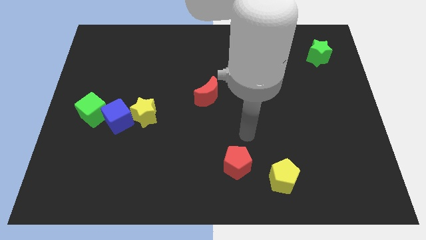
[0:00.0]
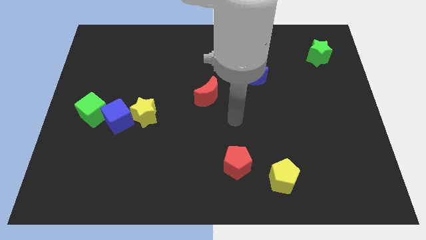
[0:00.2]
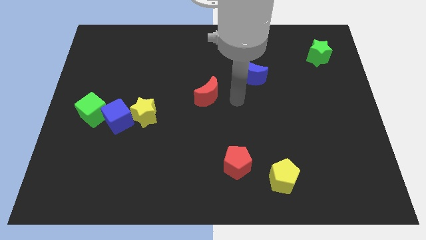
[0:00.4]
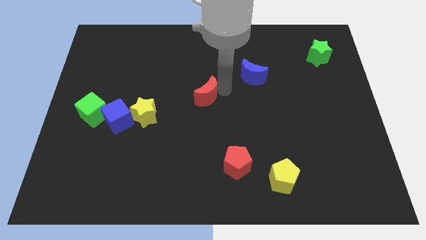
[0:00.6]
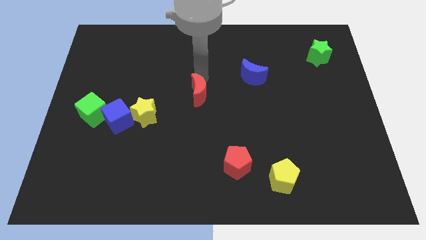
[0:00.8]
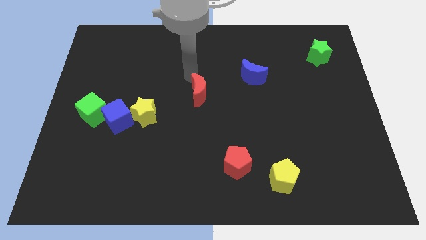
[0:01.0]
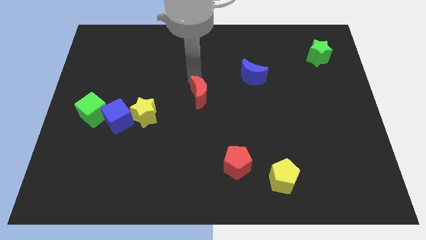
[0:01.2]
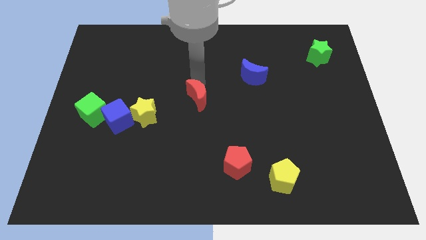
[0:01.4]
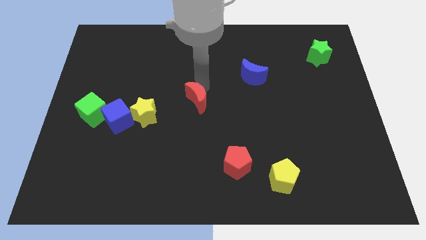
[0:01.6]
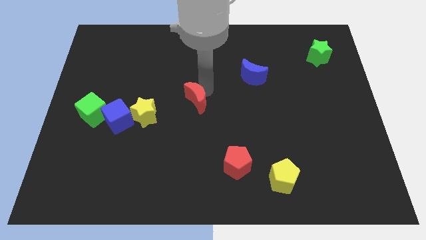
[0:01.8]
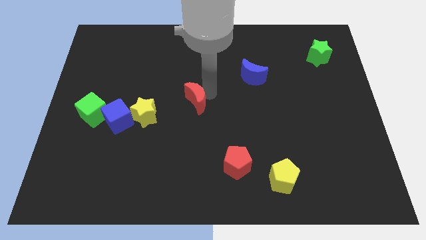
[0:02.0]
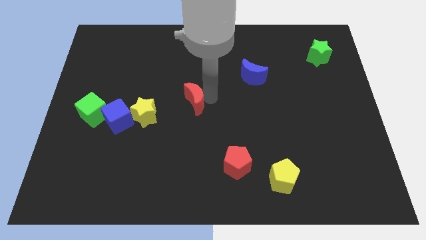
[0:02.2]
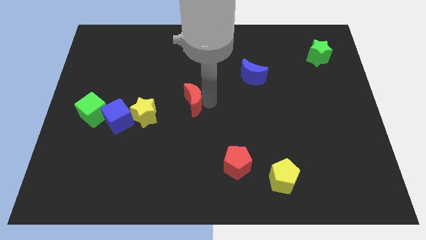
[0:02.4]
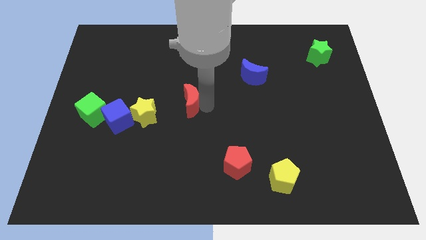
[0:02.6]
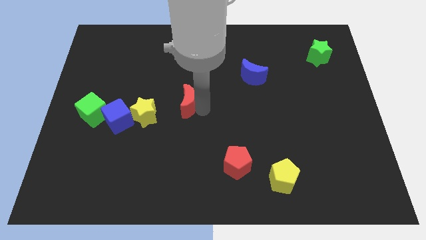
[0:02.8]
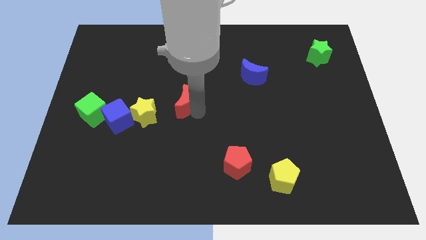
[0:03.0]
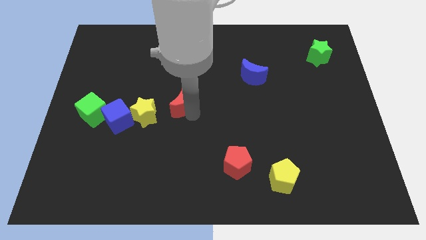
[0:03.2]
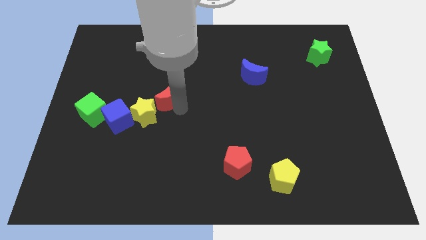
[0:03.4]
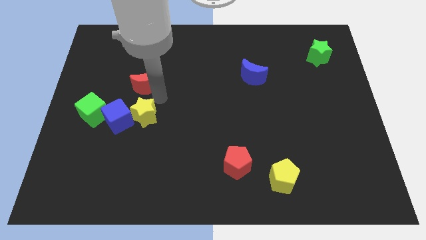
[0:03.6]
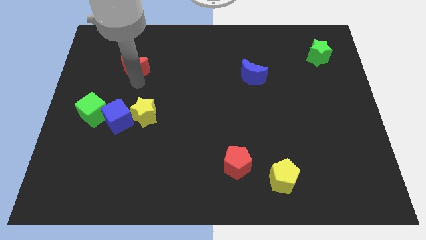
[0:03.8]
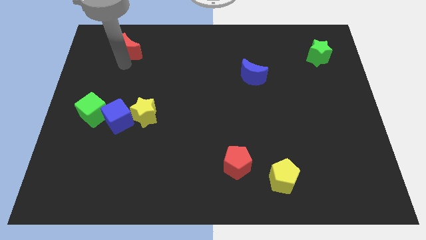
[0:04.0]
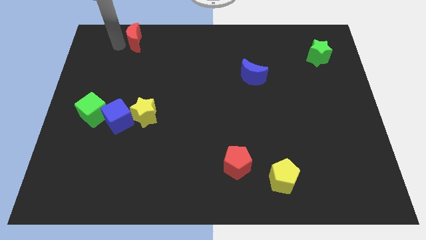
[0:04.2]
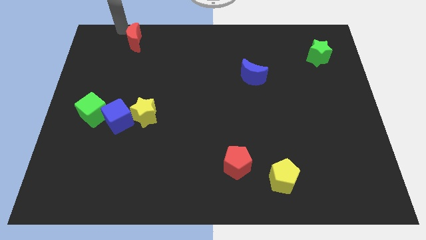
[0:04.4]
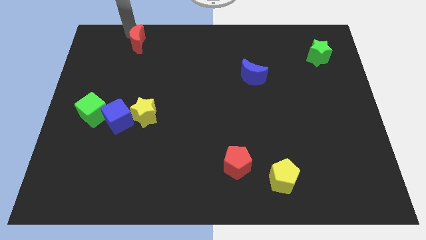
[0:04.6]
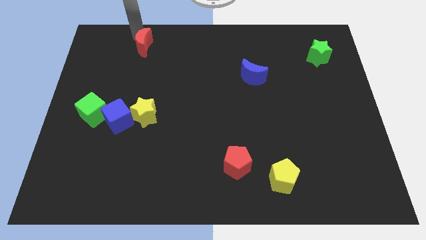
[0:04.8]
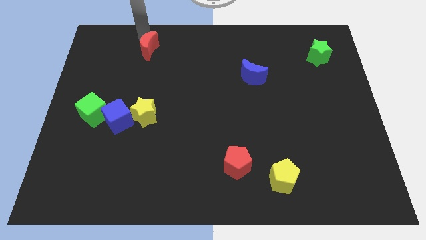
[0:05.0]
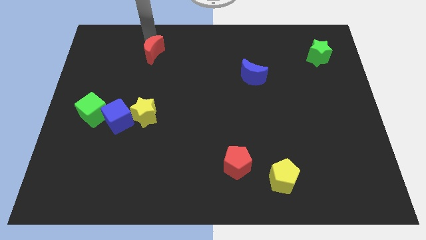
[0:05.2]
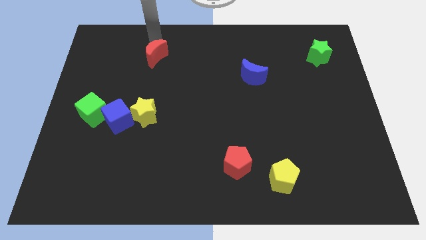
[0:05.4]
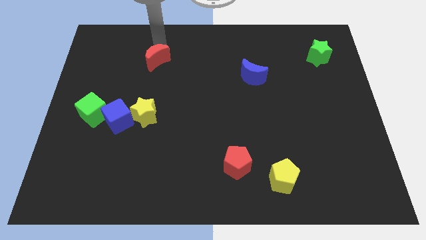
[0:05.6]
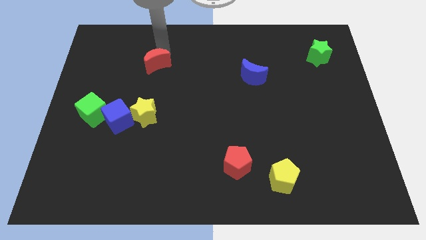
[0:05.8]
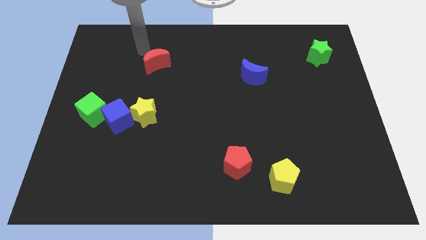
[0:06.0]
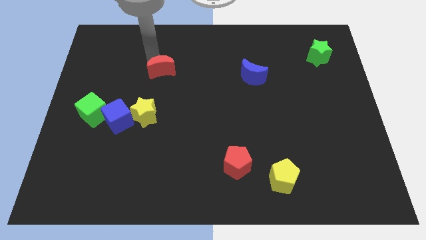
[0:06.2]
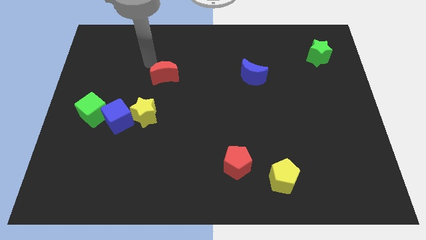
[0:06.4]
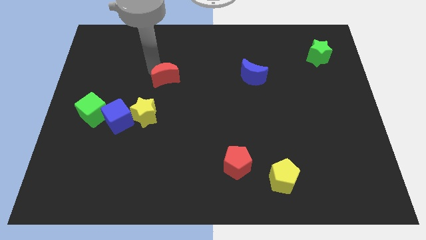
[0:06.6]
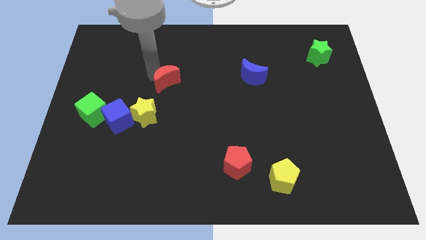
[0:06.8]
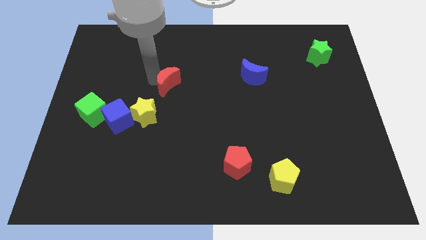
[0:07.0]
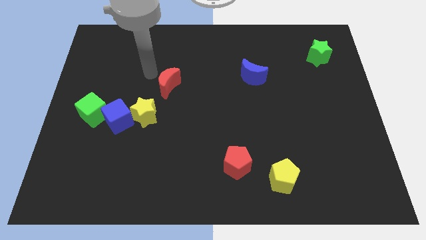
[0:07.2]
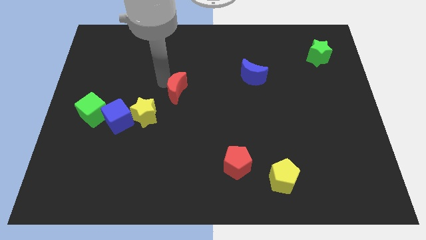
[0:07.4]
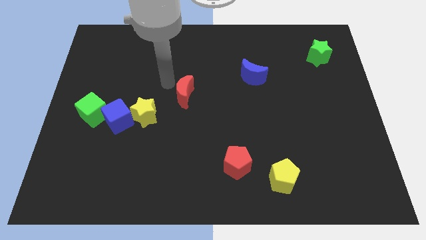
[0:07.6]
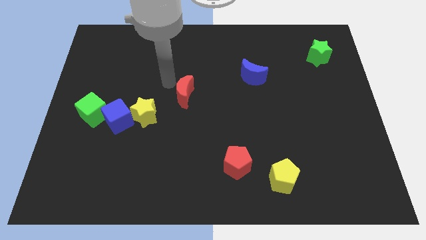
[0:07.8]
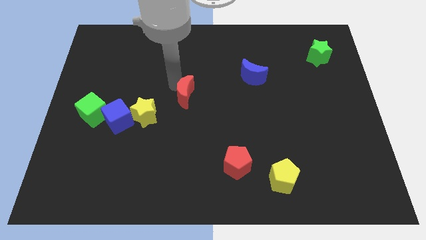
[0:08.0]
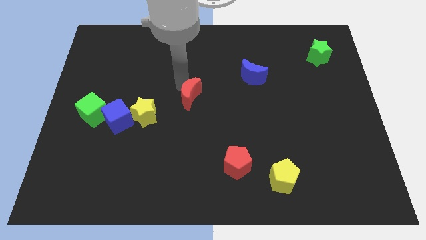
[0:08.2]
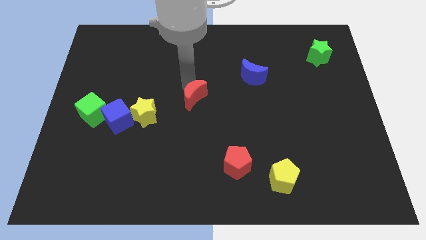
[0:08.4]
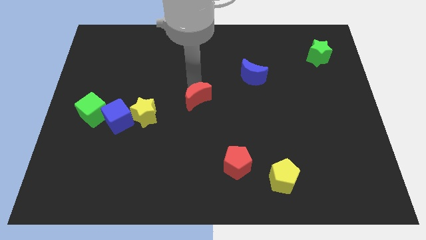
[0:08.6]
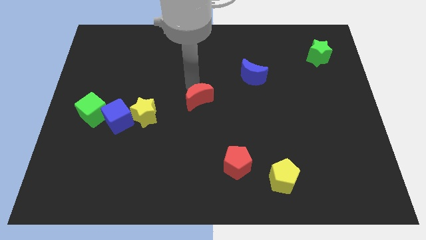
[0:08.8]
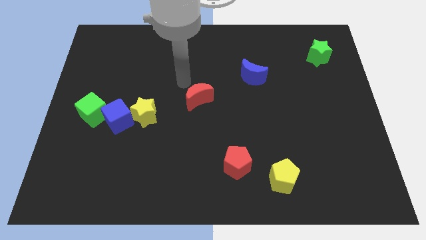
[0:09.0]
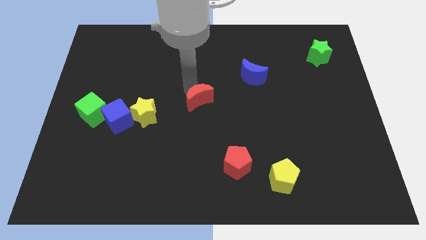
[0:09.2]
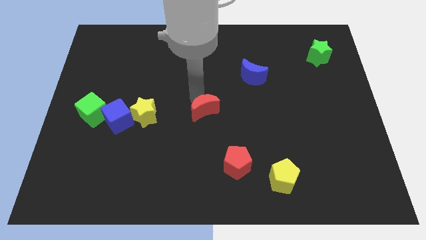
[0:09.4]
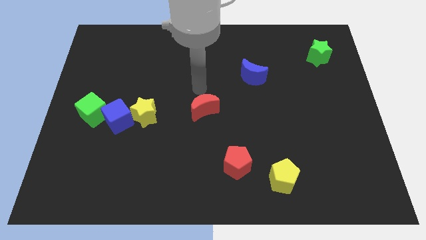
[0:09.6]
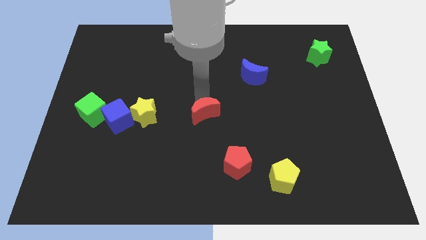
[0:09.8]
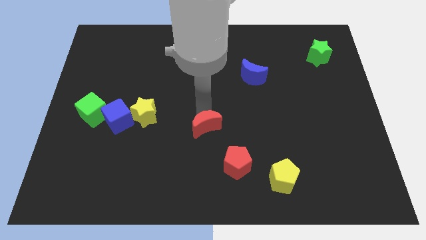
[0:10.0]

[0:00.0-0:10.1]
push the red moon to the top left side of the red pentagon

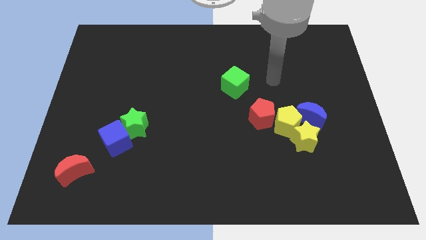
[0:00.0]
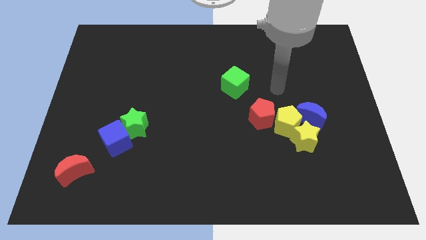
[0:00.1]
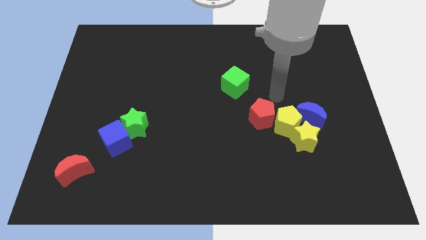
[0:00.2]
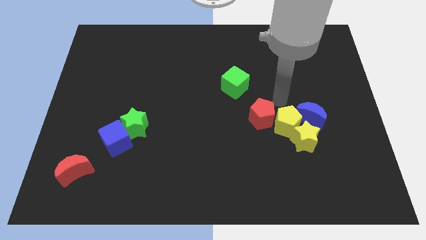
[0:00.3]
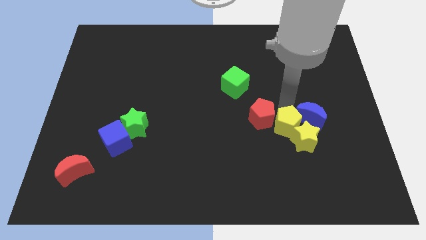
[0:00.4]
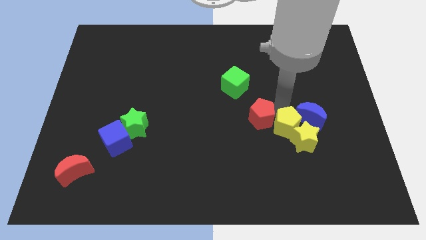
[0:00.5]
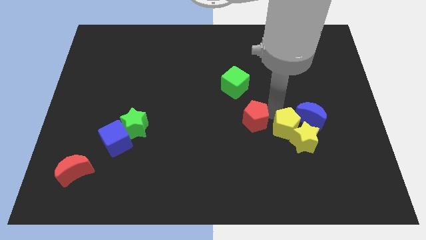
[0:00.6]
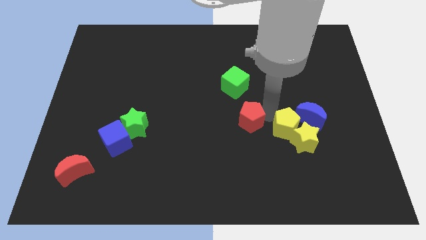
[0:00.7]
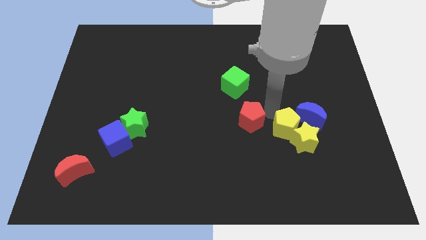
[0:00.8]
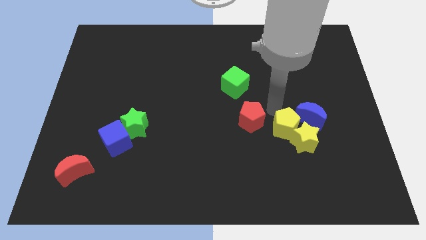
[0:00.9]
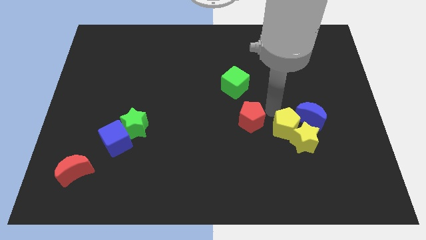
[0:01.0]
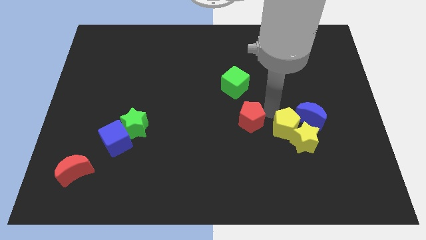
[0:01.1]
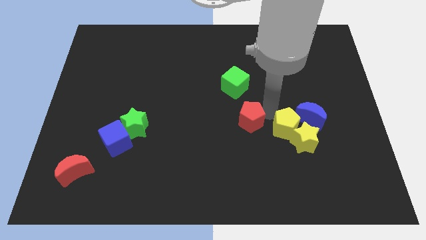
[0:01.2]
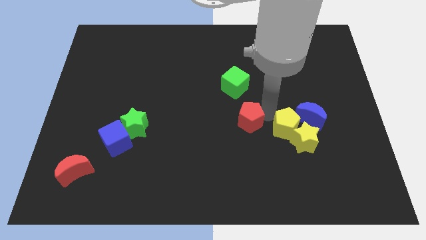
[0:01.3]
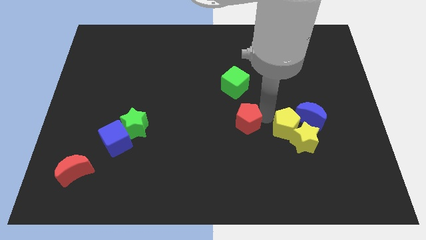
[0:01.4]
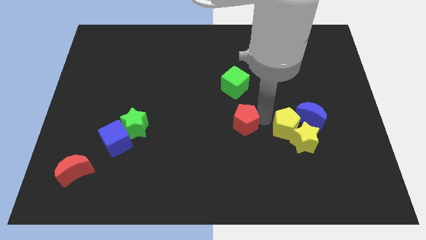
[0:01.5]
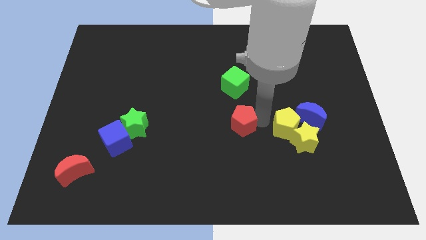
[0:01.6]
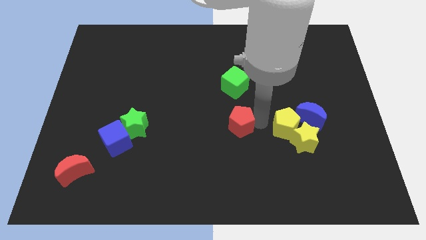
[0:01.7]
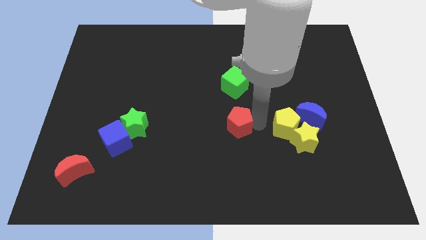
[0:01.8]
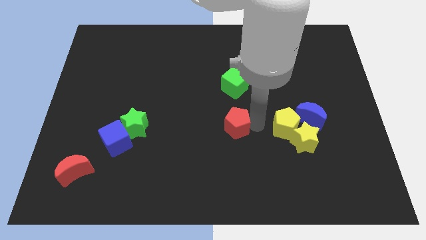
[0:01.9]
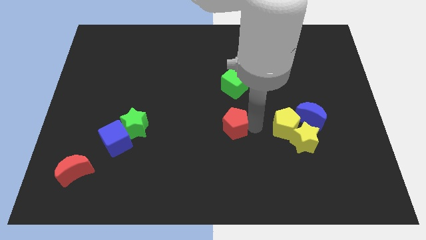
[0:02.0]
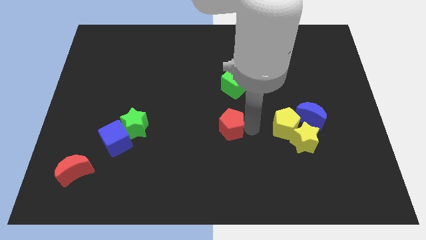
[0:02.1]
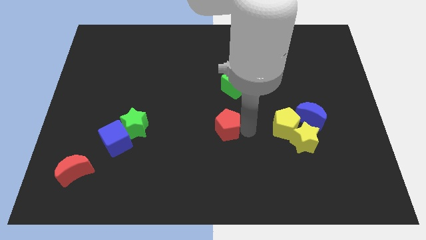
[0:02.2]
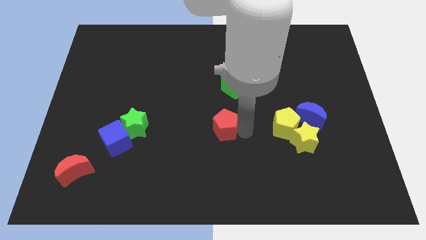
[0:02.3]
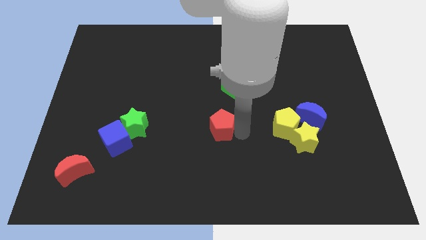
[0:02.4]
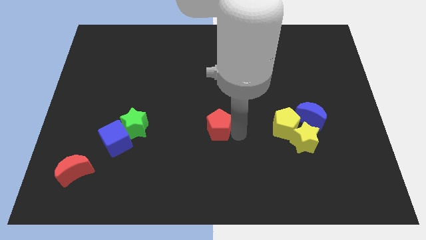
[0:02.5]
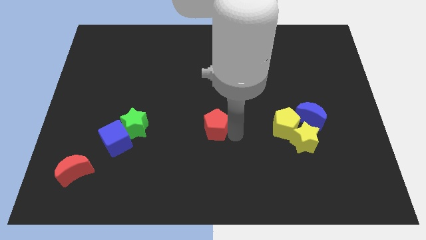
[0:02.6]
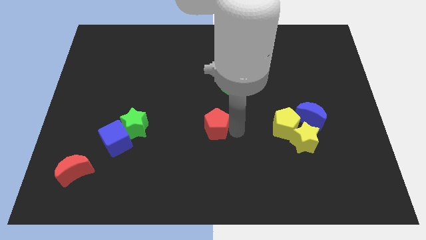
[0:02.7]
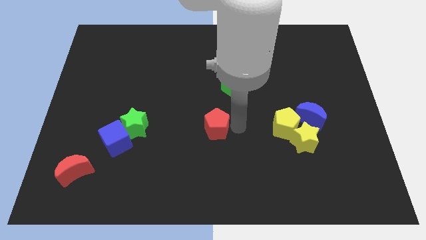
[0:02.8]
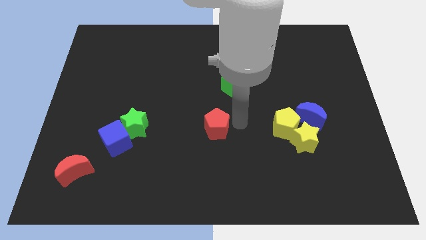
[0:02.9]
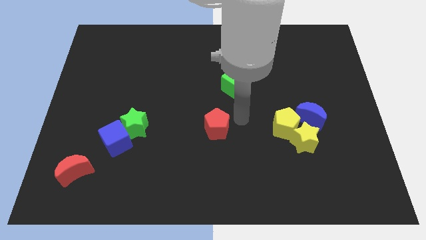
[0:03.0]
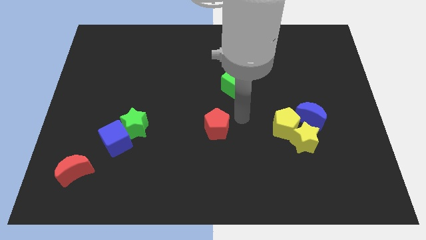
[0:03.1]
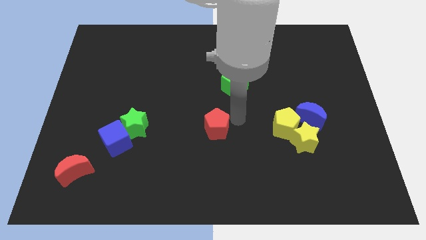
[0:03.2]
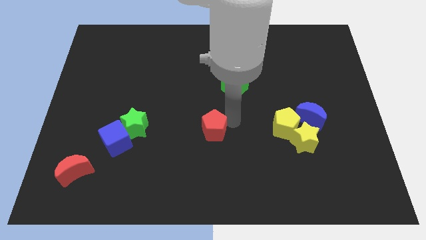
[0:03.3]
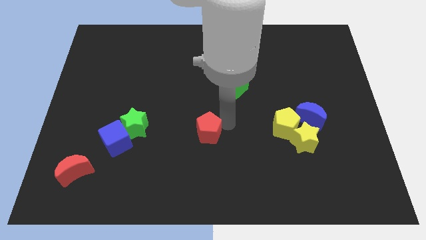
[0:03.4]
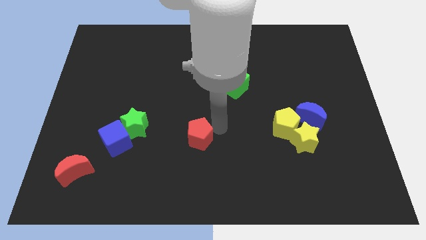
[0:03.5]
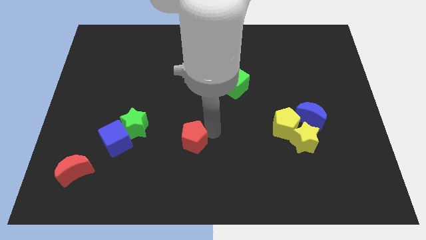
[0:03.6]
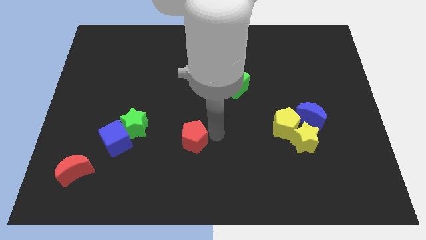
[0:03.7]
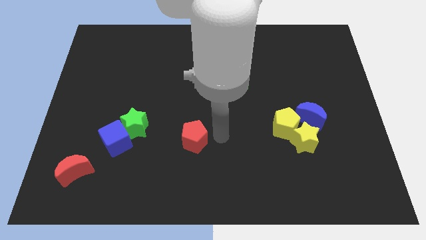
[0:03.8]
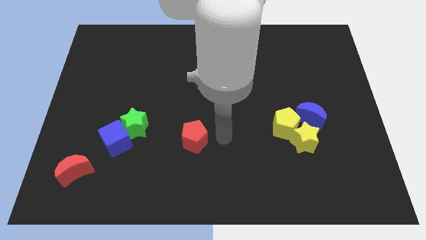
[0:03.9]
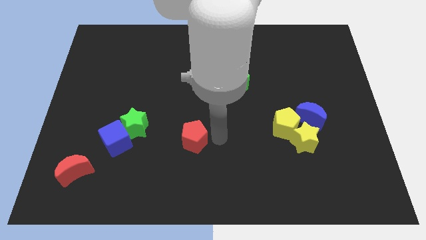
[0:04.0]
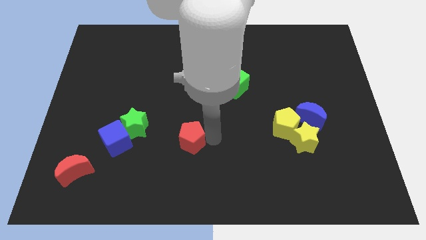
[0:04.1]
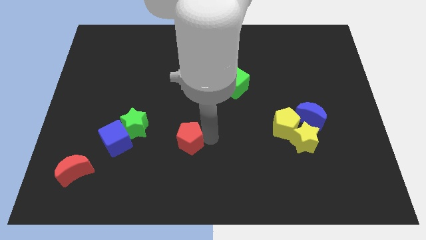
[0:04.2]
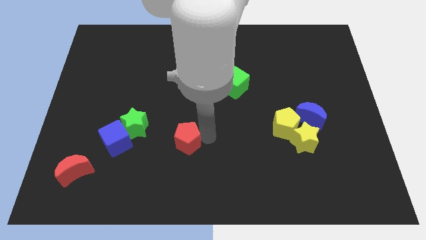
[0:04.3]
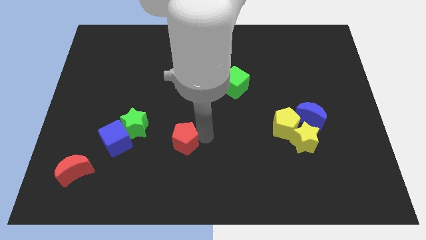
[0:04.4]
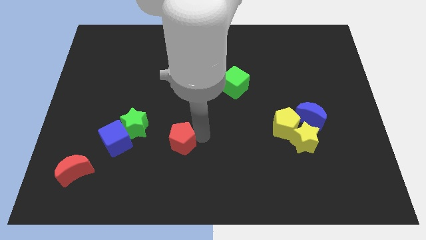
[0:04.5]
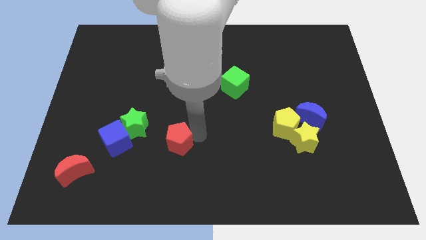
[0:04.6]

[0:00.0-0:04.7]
slide the red pentagon to the bottom right side of the green star
